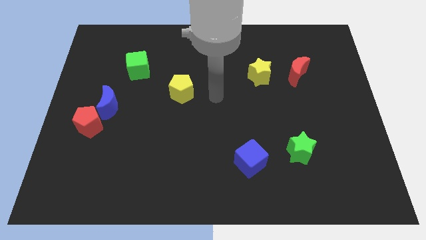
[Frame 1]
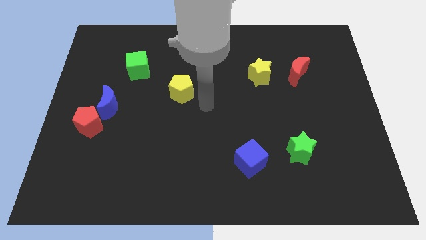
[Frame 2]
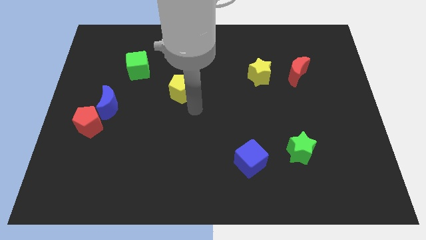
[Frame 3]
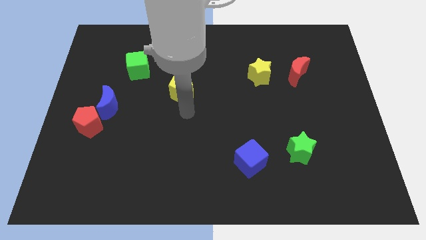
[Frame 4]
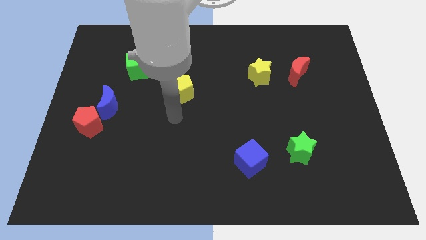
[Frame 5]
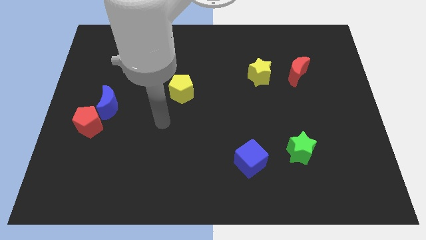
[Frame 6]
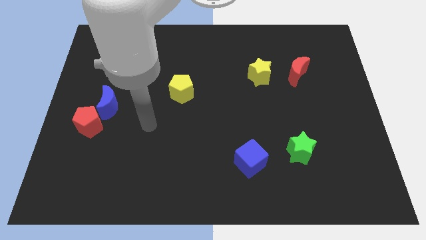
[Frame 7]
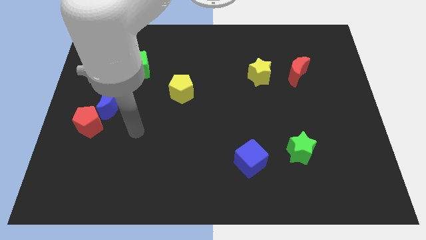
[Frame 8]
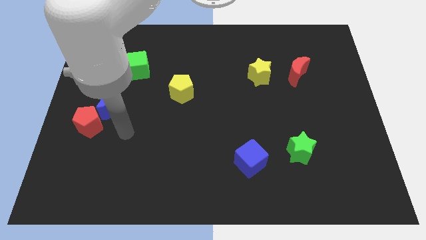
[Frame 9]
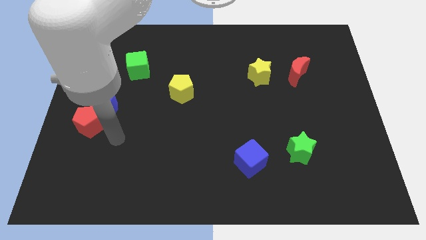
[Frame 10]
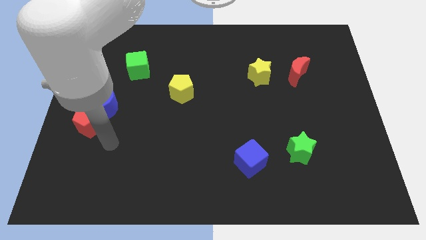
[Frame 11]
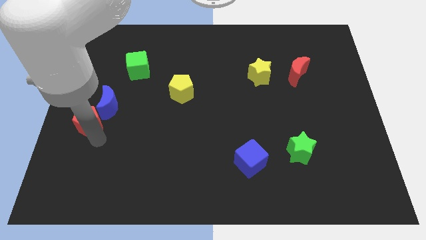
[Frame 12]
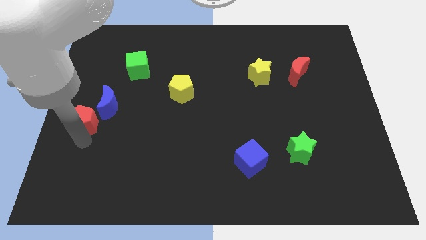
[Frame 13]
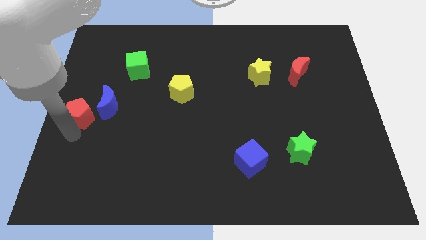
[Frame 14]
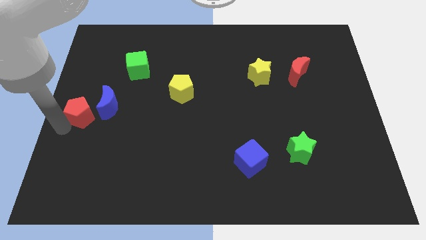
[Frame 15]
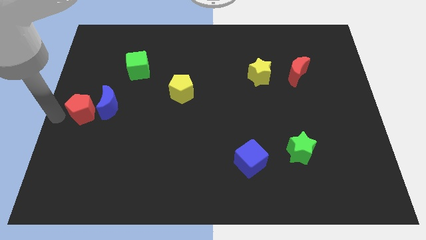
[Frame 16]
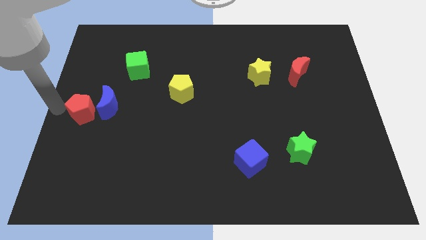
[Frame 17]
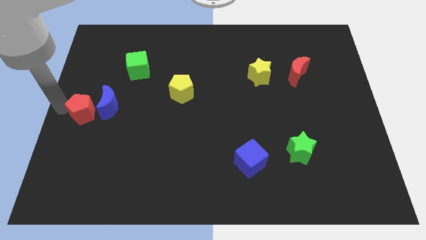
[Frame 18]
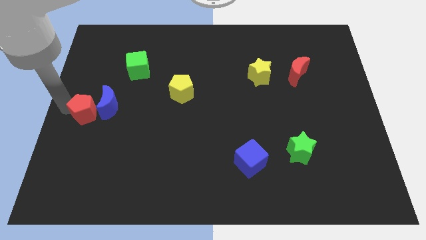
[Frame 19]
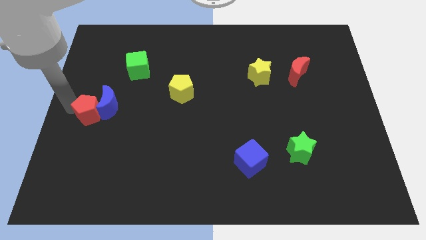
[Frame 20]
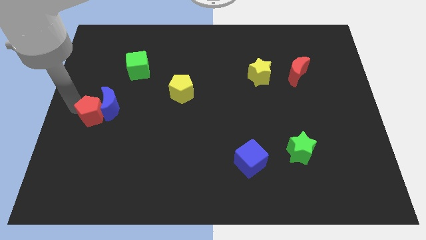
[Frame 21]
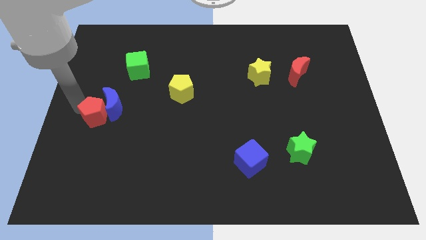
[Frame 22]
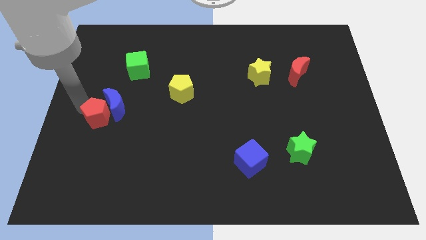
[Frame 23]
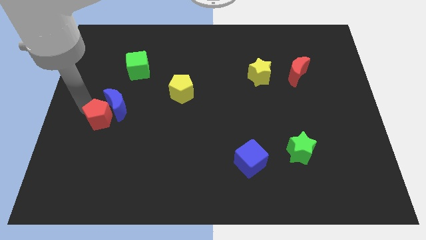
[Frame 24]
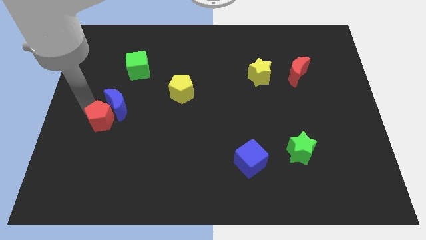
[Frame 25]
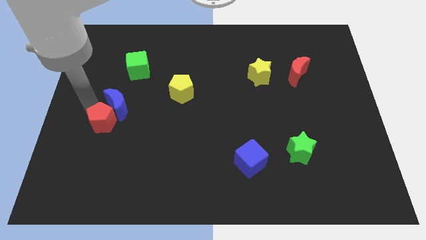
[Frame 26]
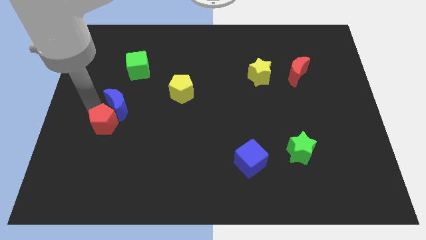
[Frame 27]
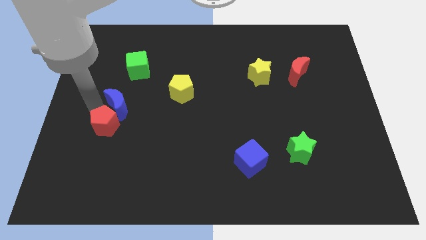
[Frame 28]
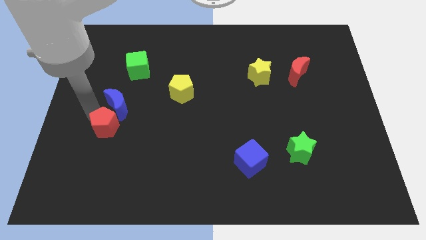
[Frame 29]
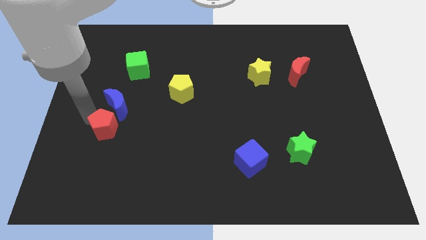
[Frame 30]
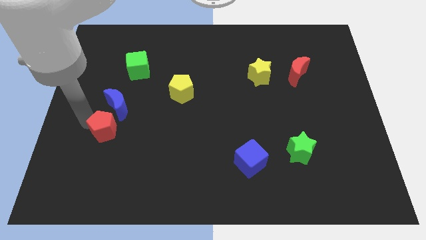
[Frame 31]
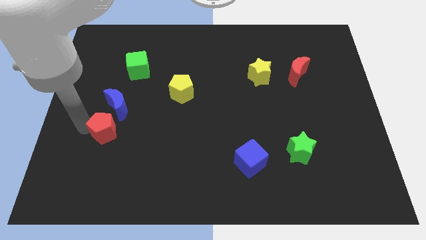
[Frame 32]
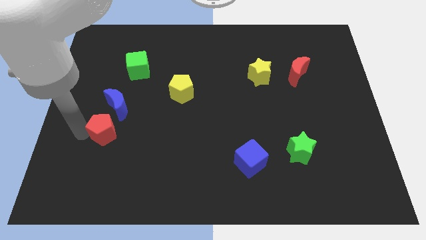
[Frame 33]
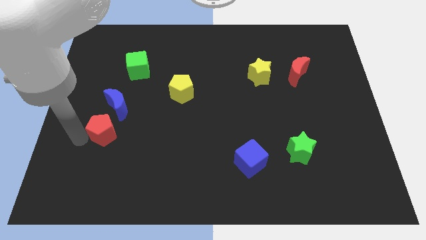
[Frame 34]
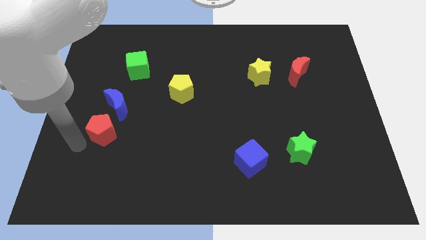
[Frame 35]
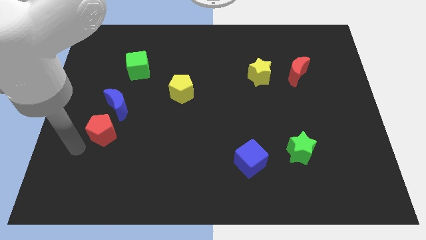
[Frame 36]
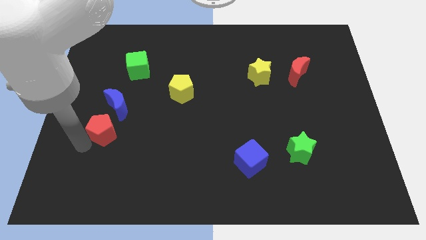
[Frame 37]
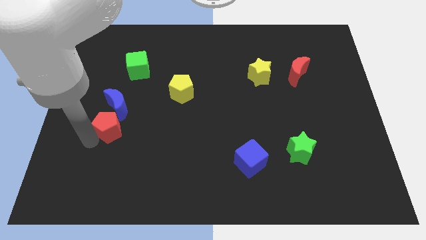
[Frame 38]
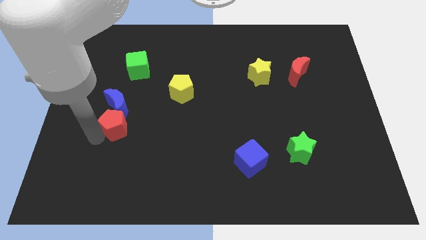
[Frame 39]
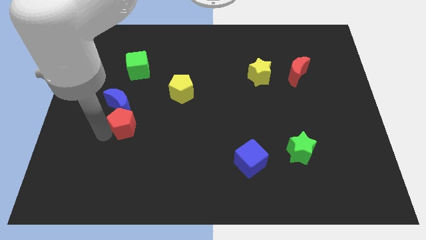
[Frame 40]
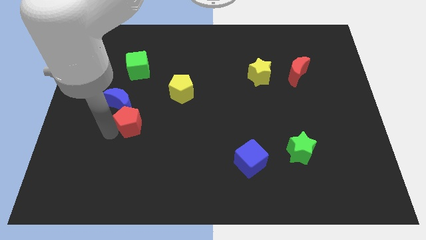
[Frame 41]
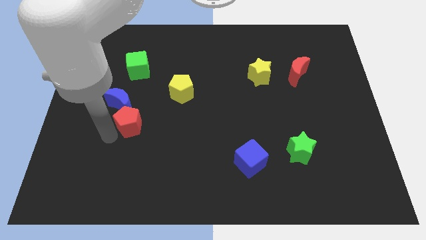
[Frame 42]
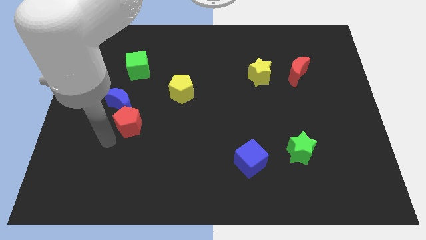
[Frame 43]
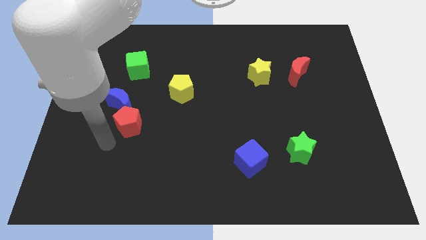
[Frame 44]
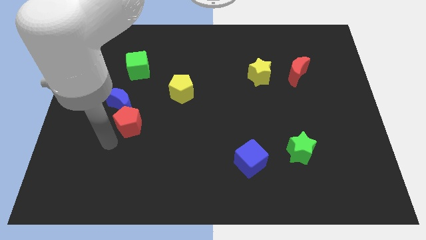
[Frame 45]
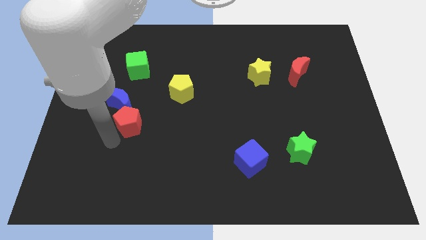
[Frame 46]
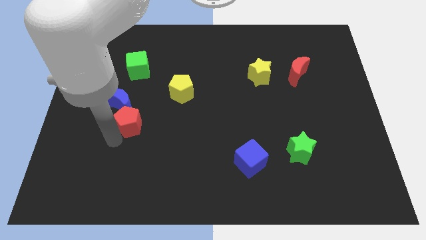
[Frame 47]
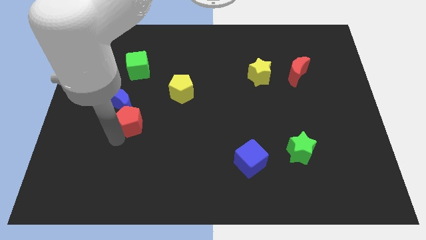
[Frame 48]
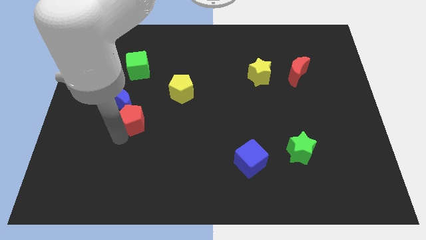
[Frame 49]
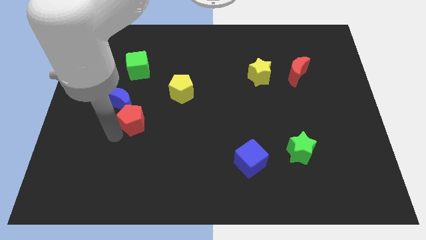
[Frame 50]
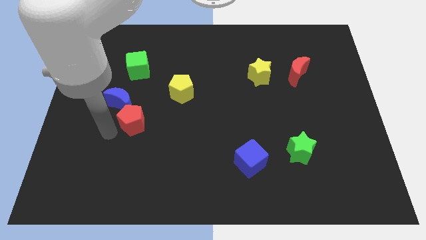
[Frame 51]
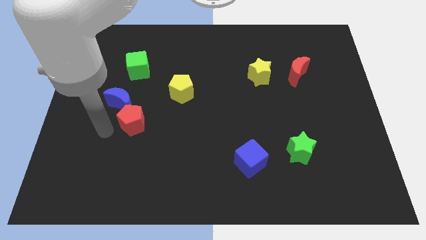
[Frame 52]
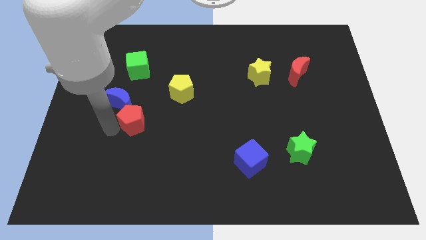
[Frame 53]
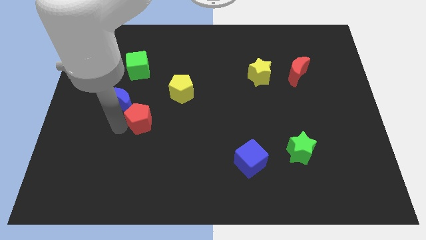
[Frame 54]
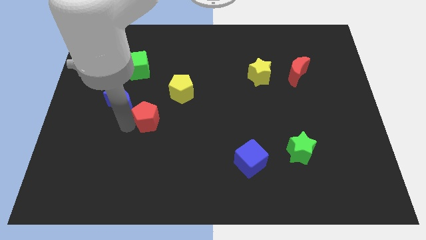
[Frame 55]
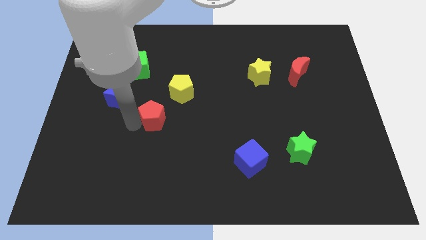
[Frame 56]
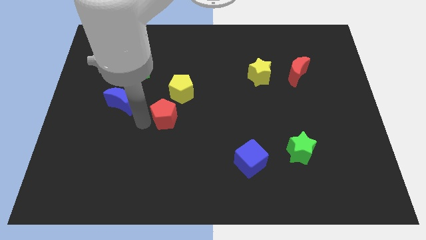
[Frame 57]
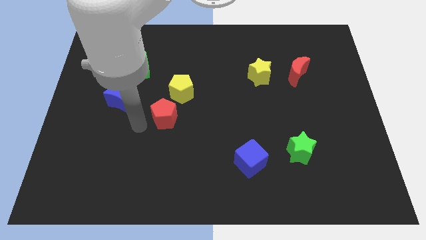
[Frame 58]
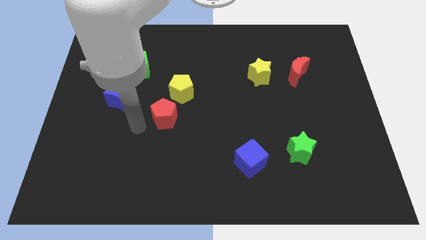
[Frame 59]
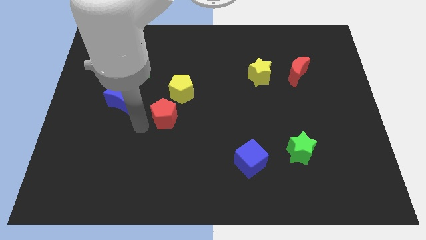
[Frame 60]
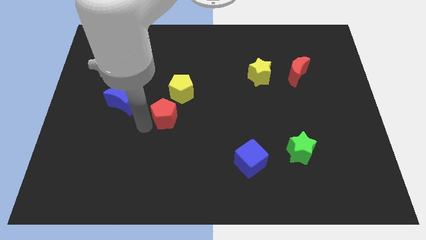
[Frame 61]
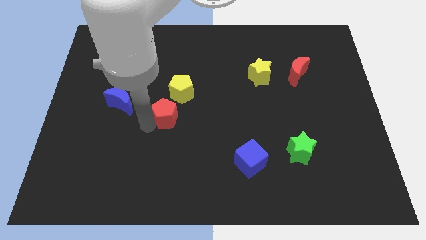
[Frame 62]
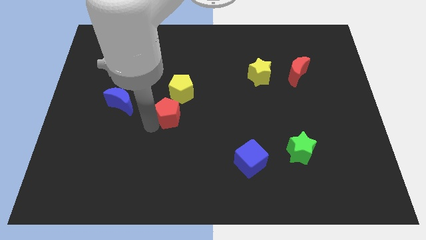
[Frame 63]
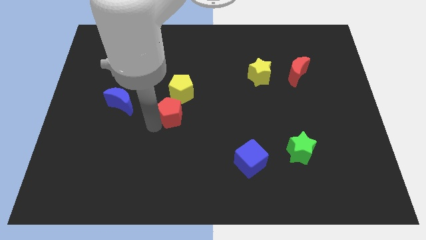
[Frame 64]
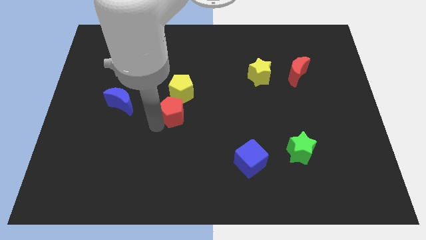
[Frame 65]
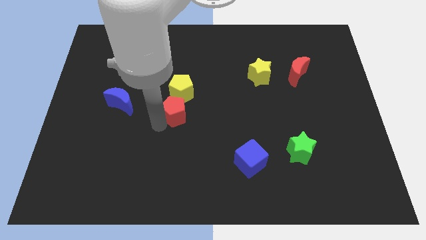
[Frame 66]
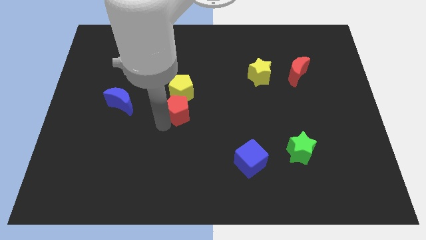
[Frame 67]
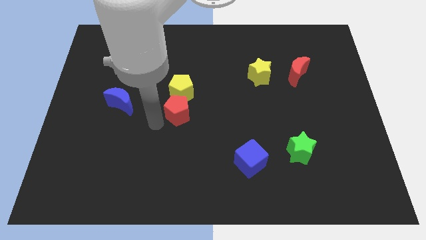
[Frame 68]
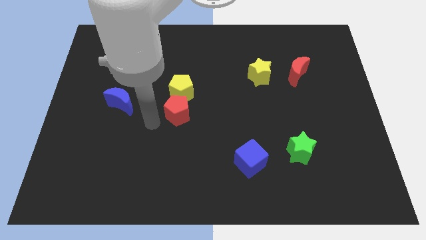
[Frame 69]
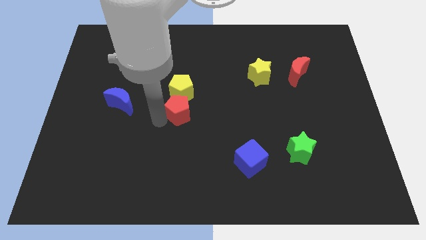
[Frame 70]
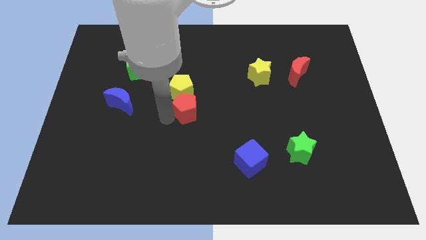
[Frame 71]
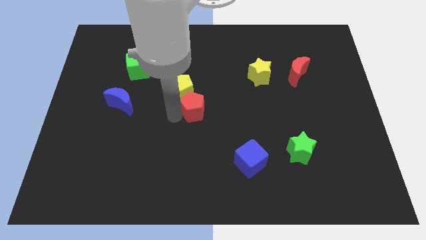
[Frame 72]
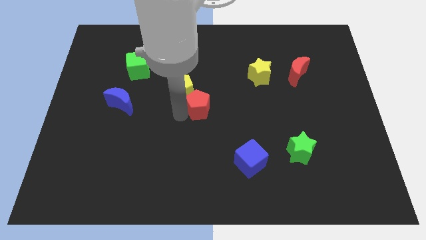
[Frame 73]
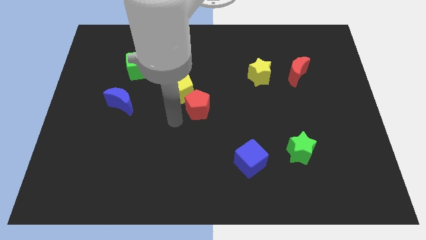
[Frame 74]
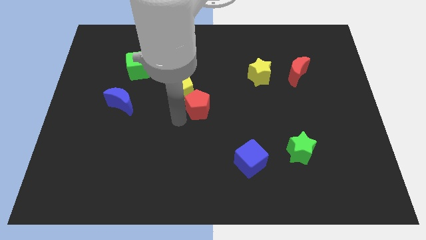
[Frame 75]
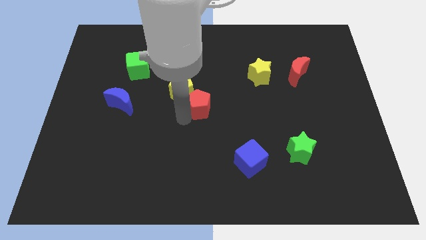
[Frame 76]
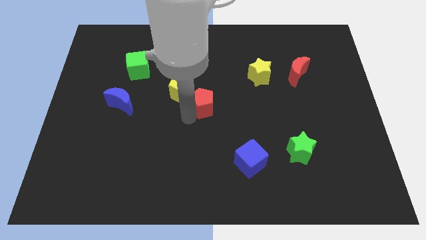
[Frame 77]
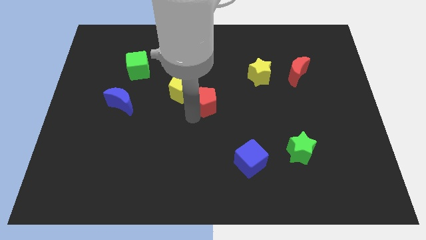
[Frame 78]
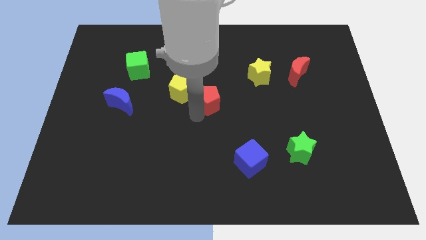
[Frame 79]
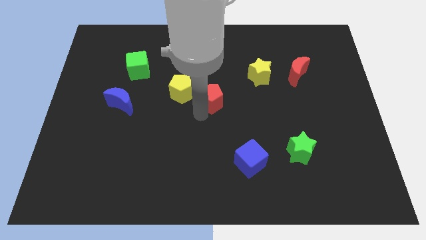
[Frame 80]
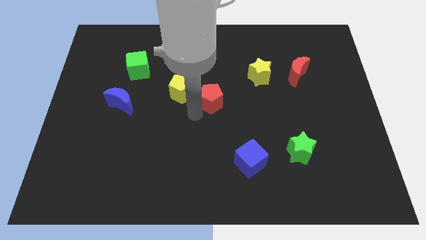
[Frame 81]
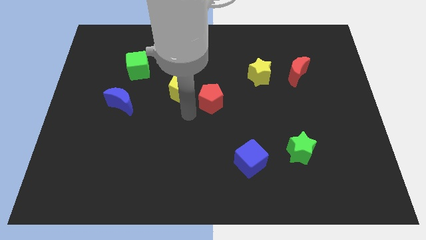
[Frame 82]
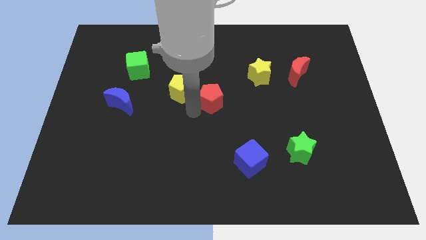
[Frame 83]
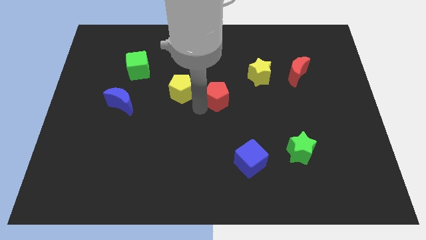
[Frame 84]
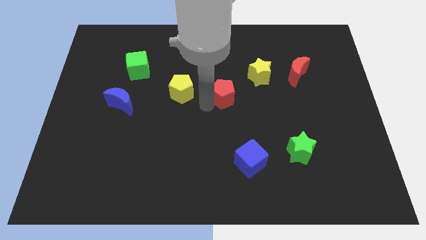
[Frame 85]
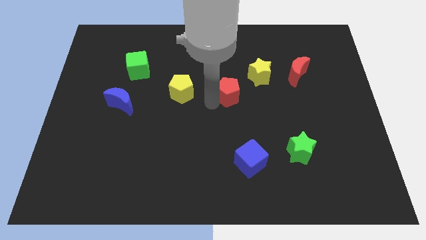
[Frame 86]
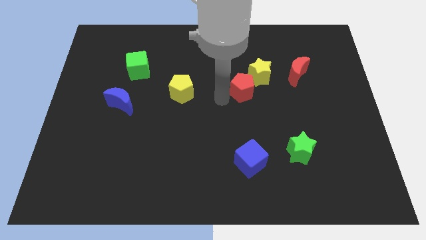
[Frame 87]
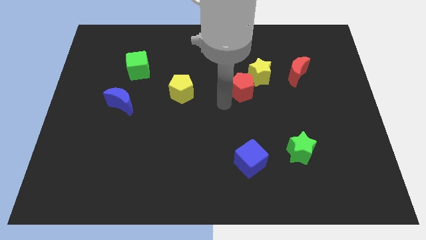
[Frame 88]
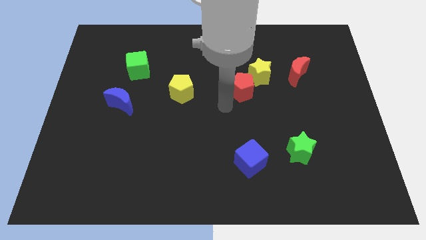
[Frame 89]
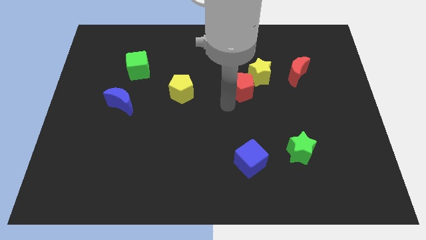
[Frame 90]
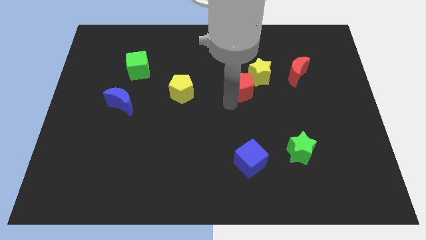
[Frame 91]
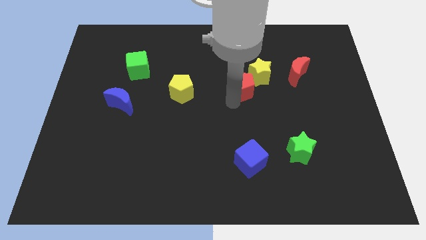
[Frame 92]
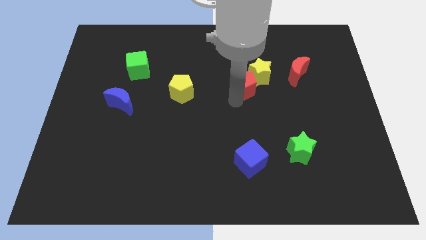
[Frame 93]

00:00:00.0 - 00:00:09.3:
put the red pentagon towards the yellow star
